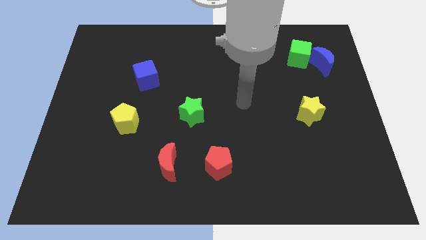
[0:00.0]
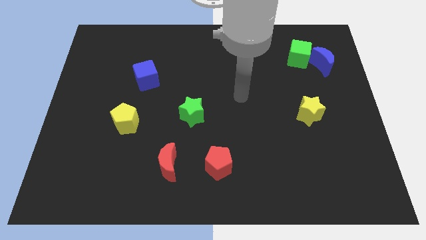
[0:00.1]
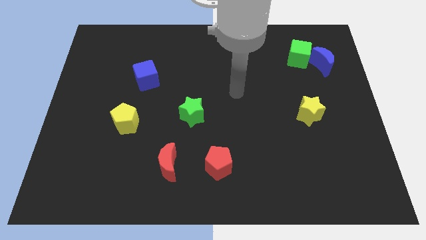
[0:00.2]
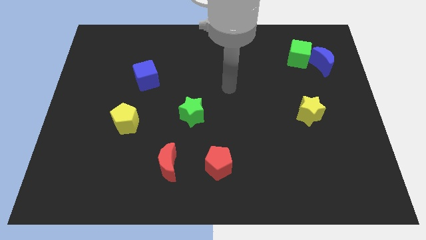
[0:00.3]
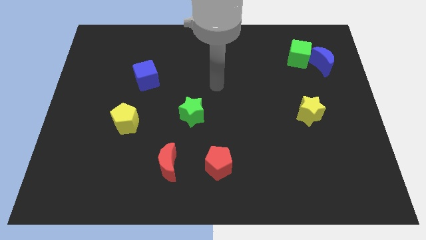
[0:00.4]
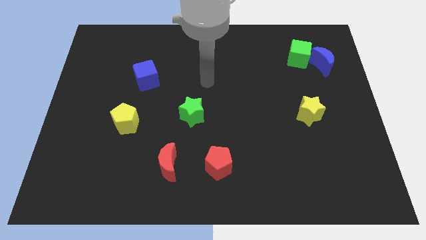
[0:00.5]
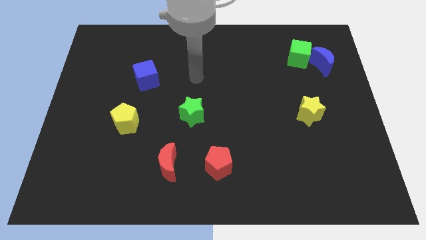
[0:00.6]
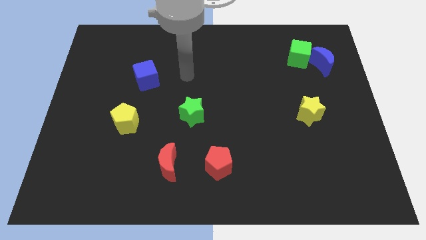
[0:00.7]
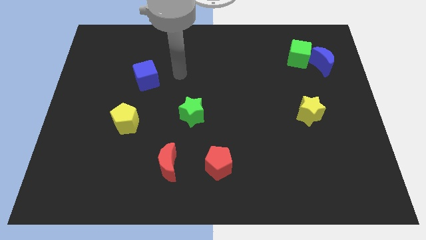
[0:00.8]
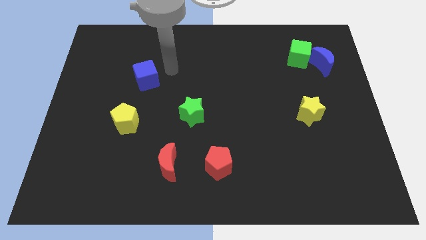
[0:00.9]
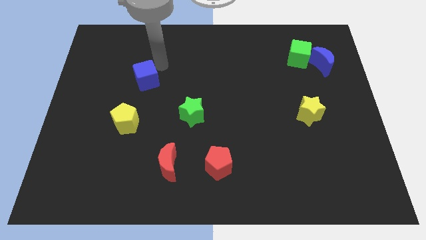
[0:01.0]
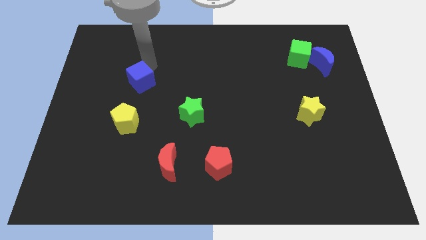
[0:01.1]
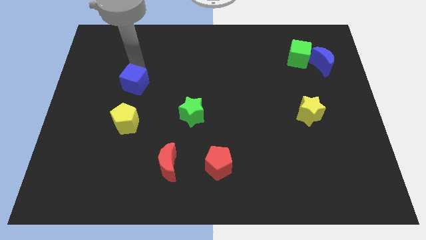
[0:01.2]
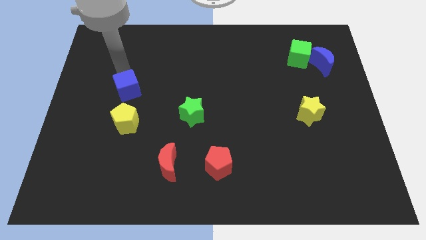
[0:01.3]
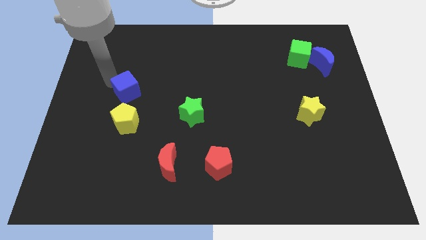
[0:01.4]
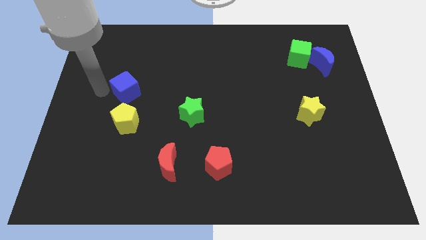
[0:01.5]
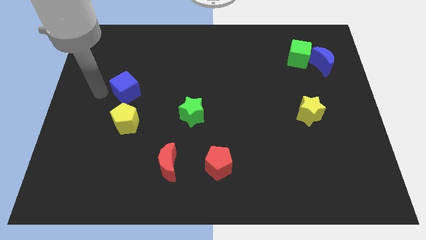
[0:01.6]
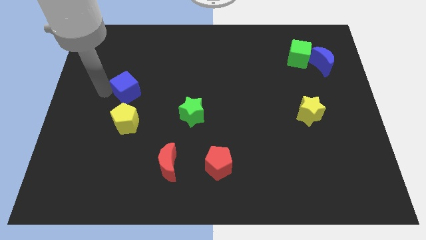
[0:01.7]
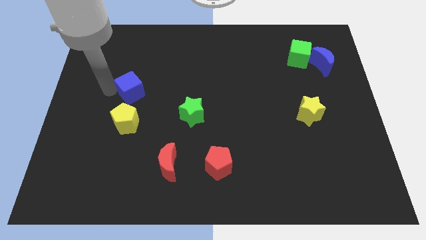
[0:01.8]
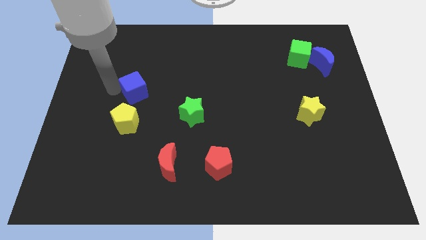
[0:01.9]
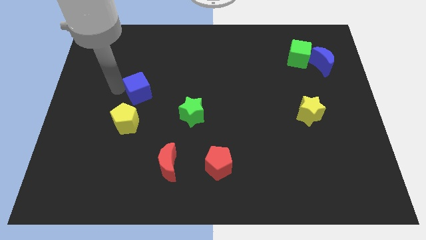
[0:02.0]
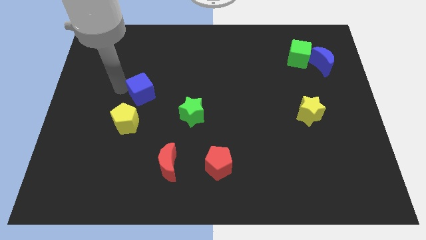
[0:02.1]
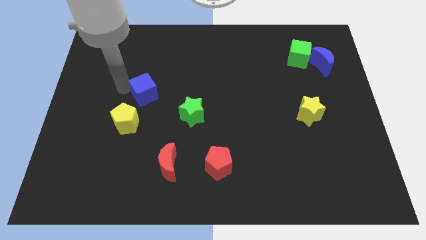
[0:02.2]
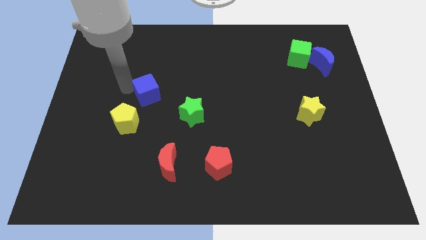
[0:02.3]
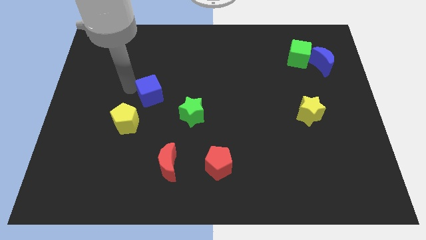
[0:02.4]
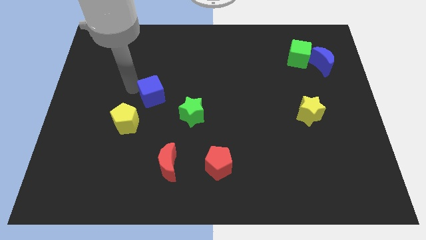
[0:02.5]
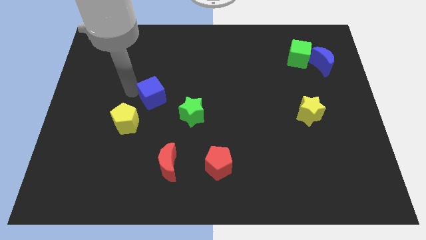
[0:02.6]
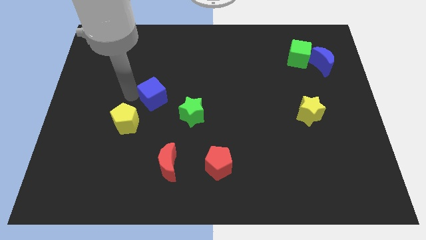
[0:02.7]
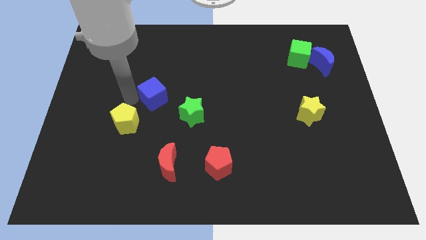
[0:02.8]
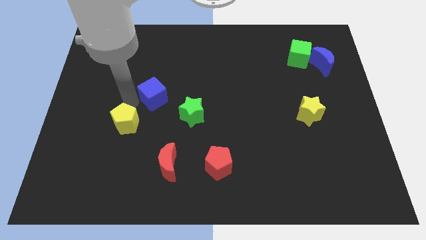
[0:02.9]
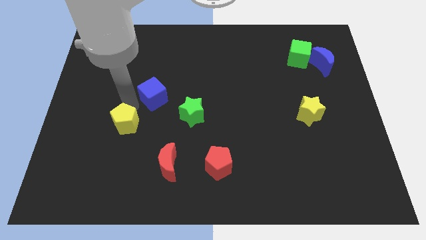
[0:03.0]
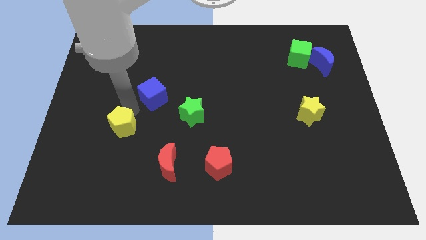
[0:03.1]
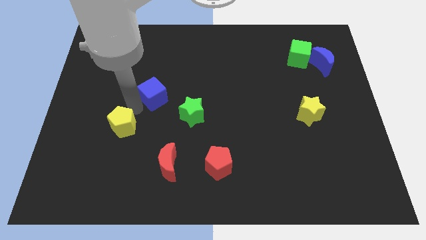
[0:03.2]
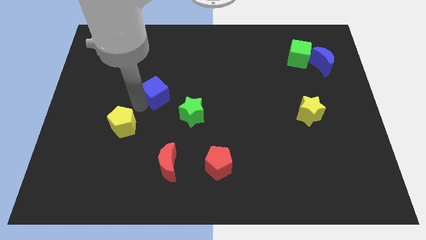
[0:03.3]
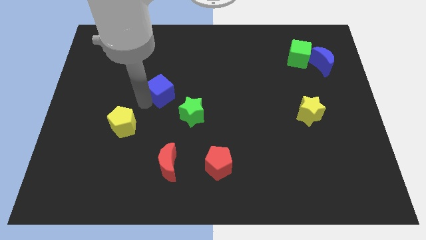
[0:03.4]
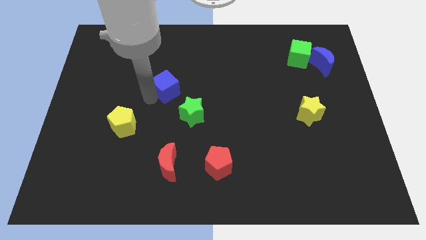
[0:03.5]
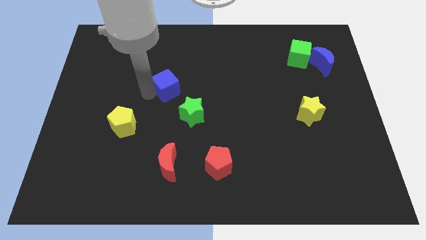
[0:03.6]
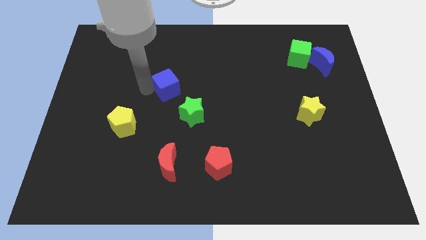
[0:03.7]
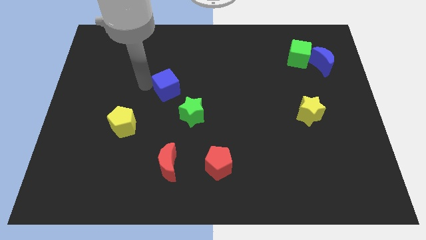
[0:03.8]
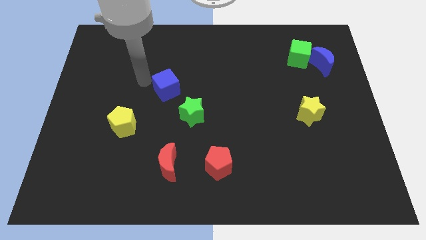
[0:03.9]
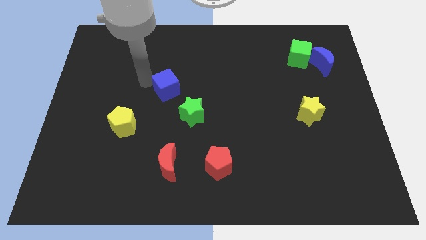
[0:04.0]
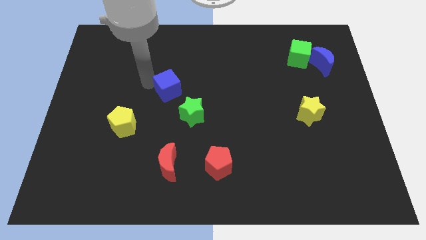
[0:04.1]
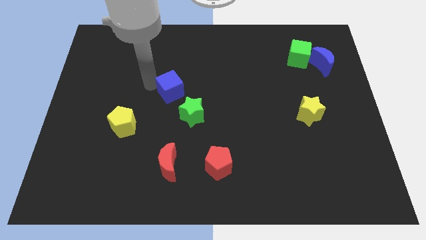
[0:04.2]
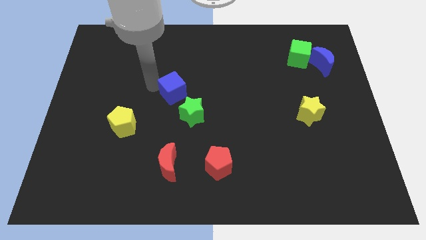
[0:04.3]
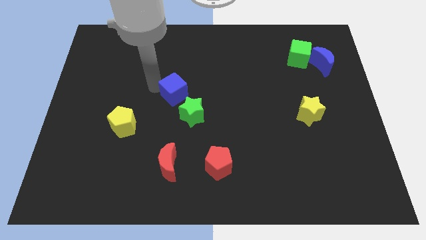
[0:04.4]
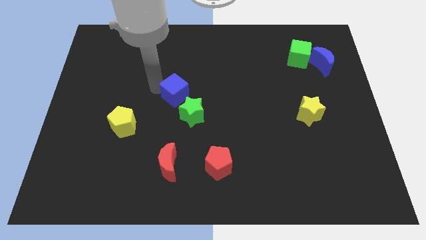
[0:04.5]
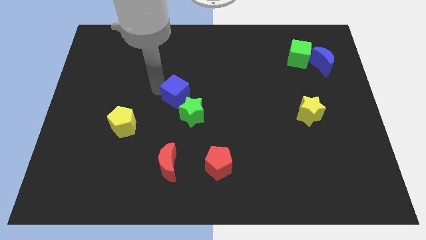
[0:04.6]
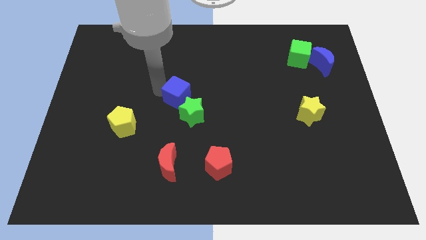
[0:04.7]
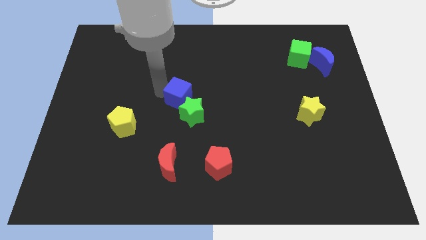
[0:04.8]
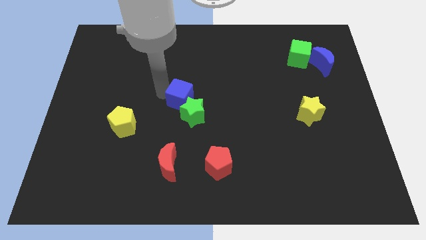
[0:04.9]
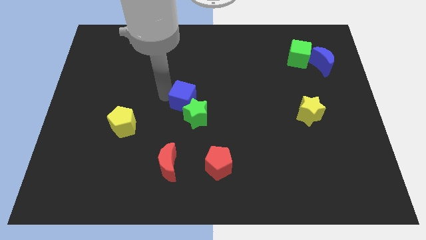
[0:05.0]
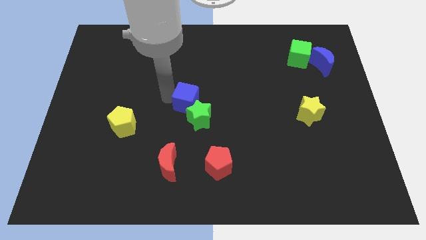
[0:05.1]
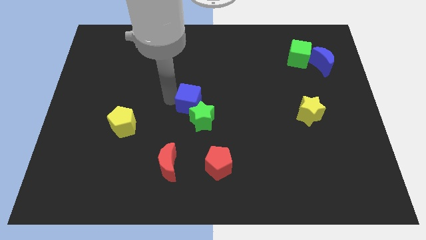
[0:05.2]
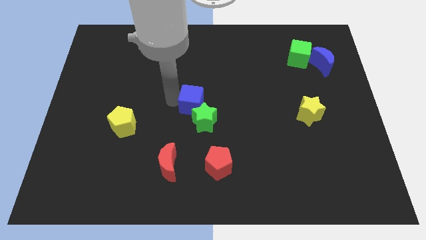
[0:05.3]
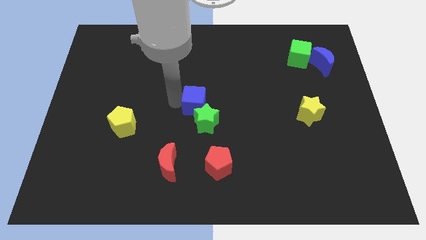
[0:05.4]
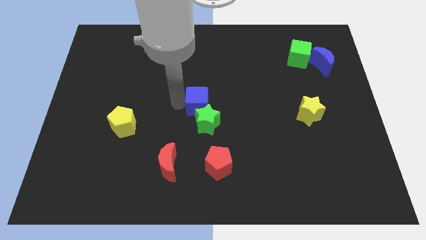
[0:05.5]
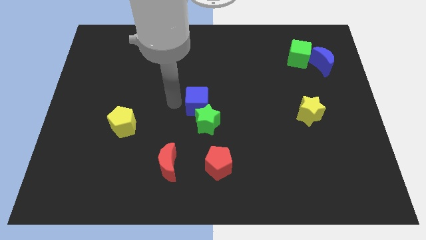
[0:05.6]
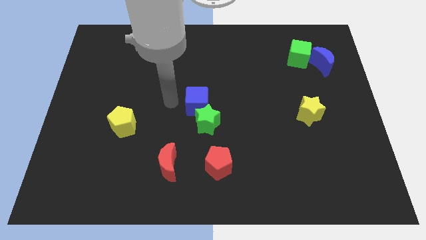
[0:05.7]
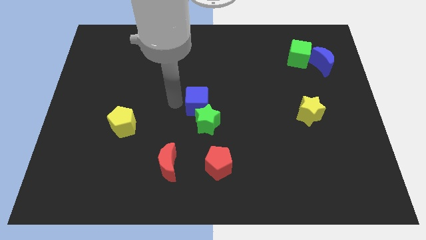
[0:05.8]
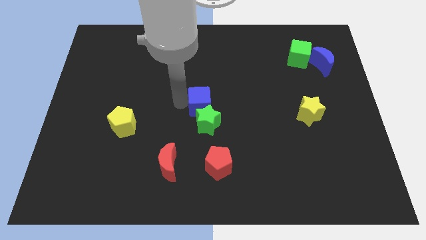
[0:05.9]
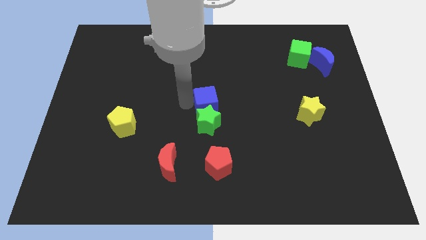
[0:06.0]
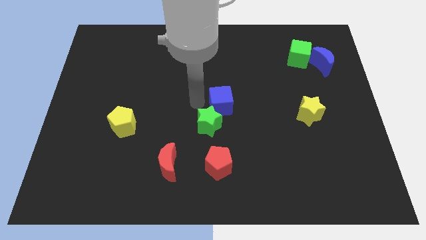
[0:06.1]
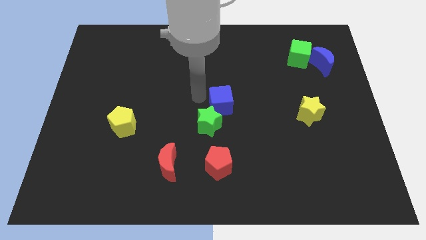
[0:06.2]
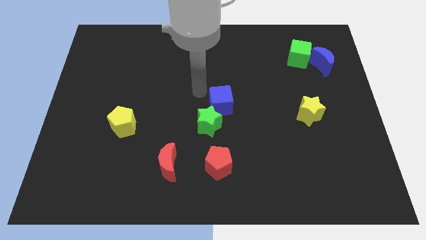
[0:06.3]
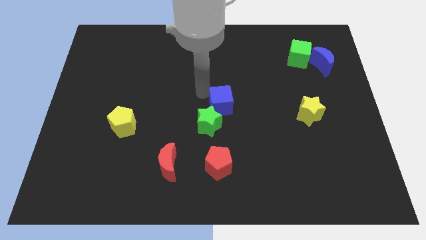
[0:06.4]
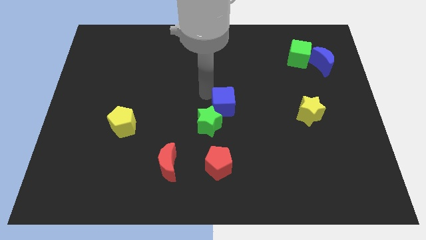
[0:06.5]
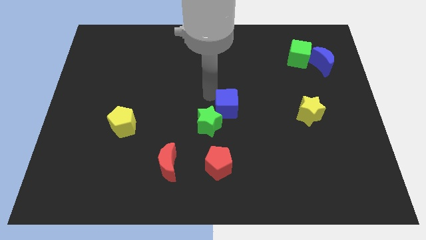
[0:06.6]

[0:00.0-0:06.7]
move the blue cube just right of the green star
